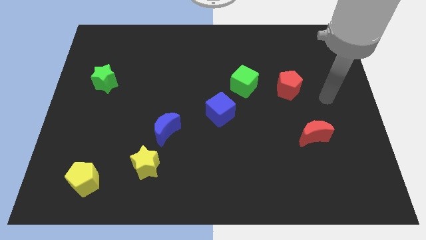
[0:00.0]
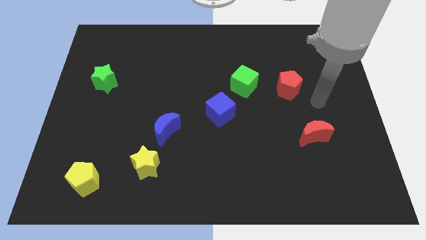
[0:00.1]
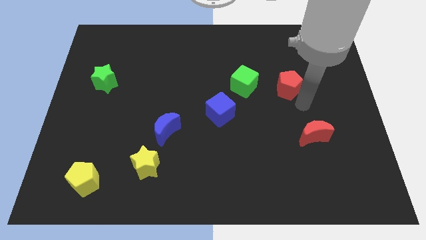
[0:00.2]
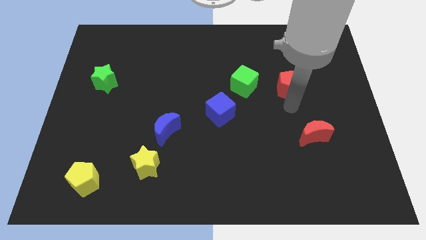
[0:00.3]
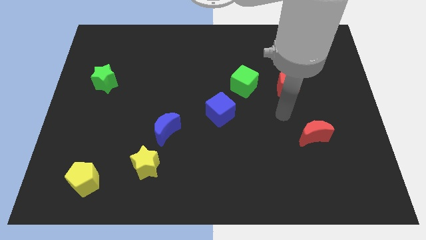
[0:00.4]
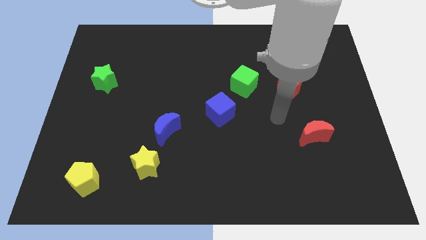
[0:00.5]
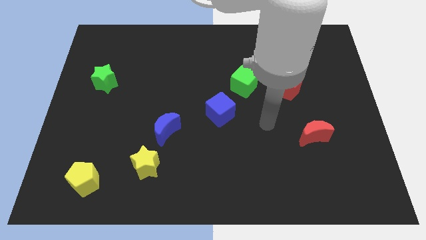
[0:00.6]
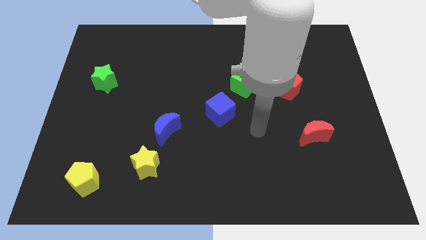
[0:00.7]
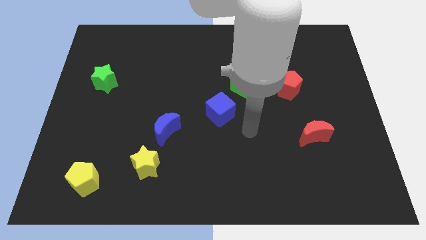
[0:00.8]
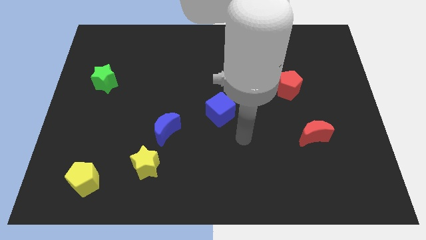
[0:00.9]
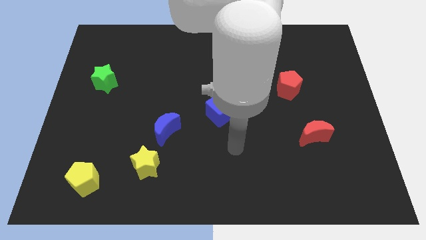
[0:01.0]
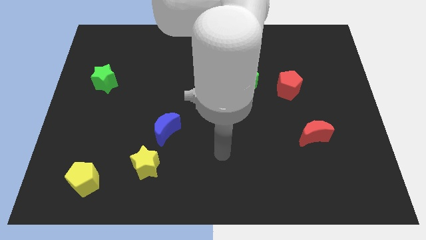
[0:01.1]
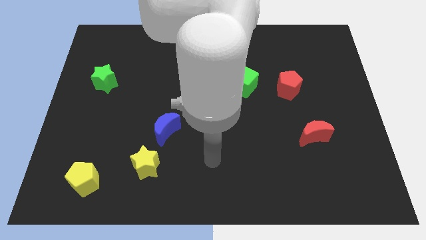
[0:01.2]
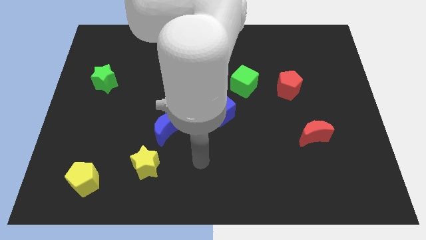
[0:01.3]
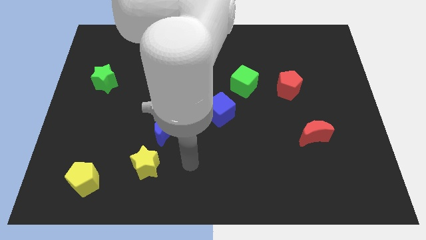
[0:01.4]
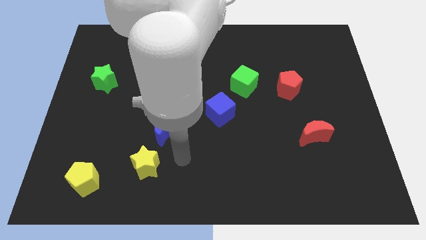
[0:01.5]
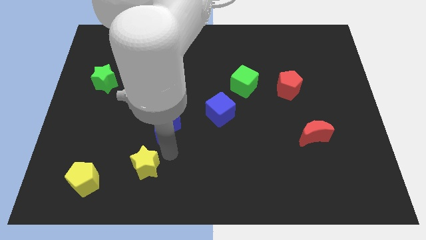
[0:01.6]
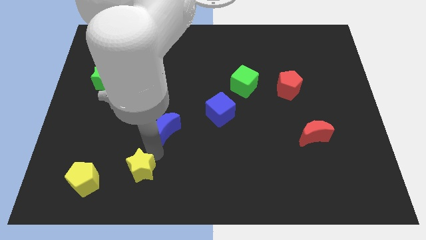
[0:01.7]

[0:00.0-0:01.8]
pull the blue moon apart from the yellow star

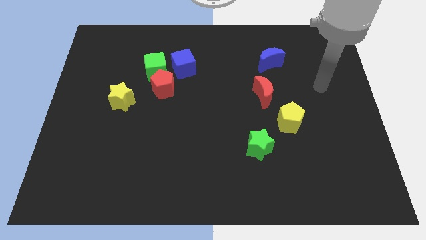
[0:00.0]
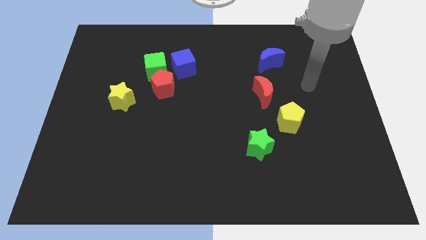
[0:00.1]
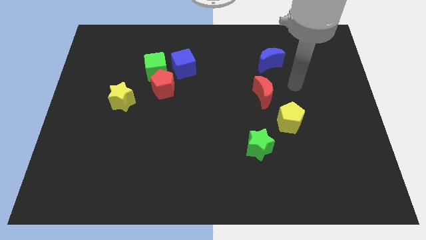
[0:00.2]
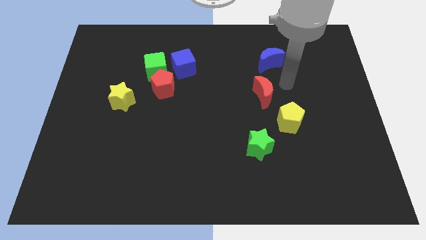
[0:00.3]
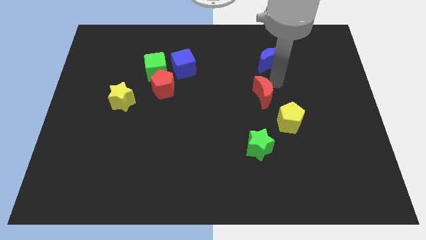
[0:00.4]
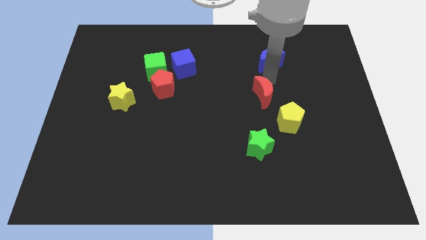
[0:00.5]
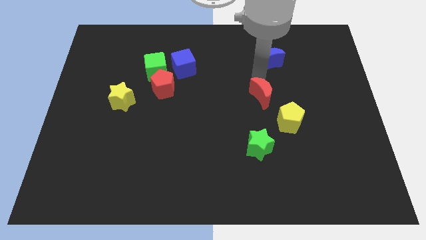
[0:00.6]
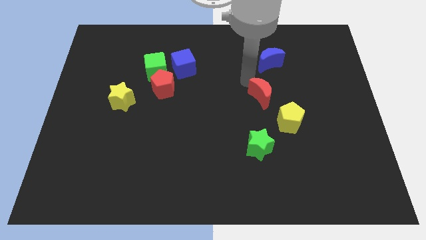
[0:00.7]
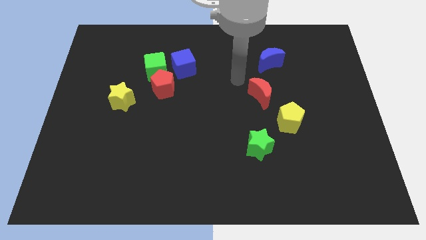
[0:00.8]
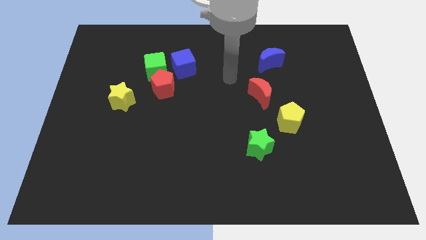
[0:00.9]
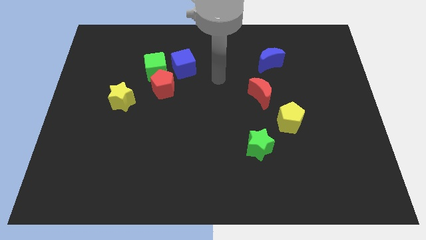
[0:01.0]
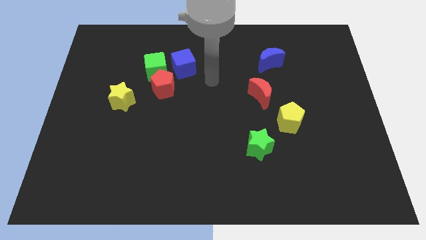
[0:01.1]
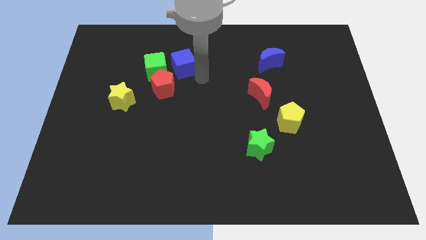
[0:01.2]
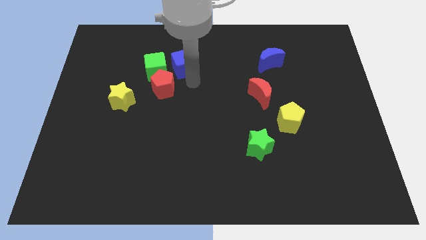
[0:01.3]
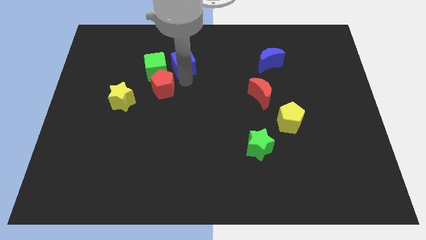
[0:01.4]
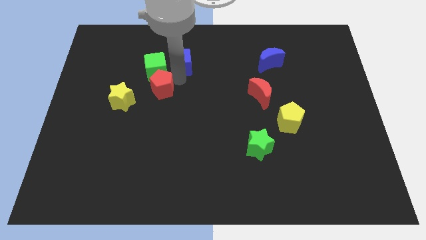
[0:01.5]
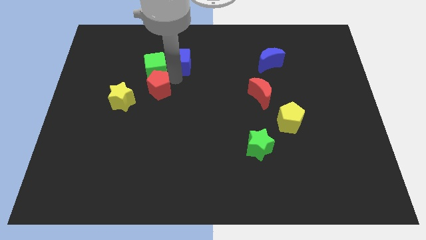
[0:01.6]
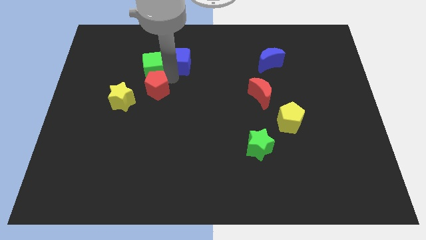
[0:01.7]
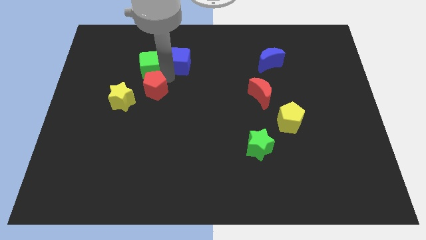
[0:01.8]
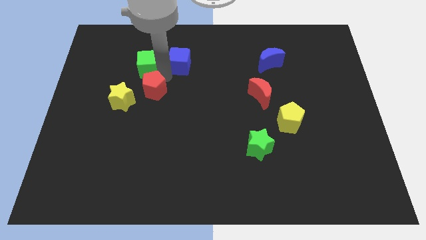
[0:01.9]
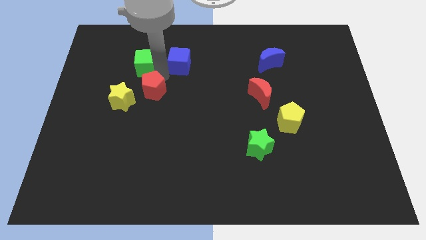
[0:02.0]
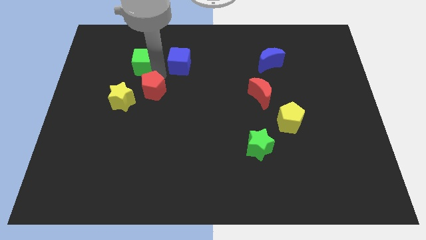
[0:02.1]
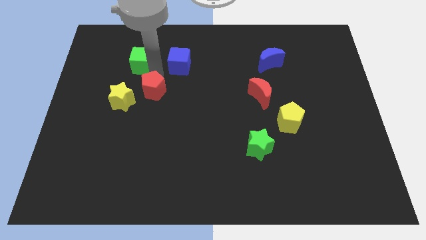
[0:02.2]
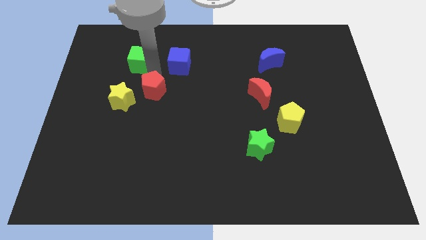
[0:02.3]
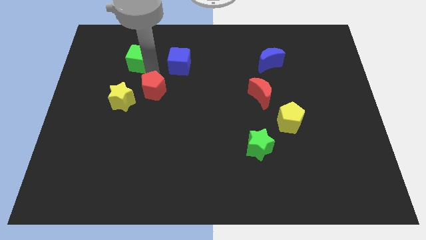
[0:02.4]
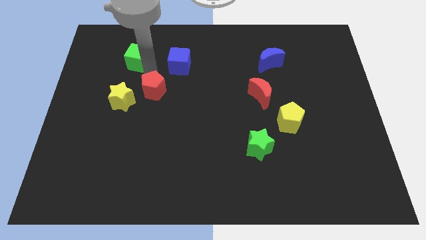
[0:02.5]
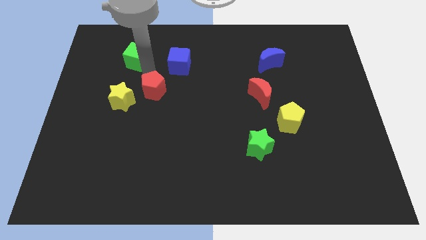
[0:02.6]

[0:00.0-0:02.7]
separate the green cube from the red pentagon and blue cube

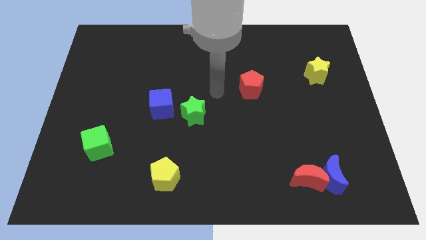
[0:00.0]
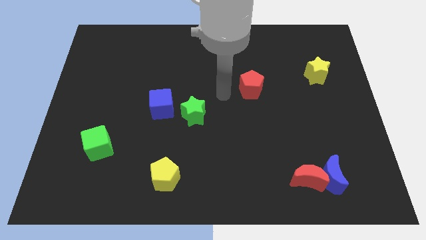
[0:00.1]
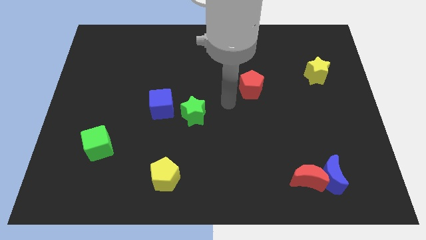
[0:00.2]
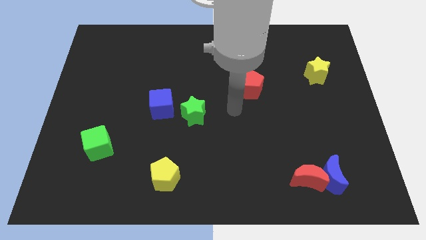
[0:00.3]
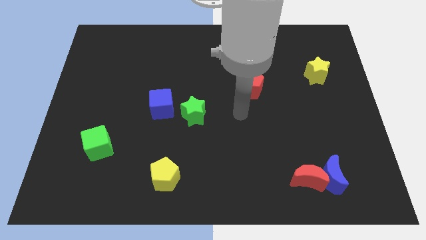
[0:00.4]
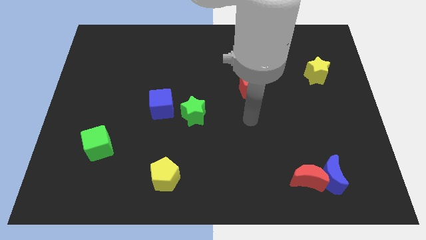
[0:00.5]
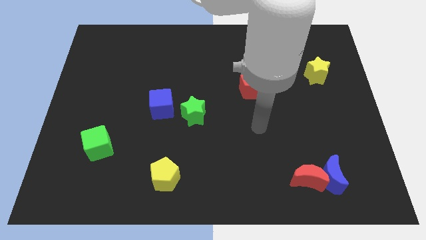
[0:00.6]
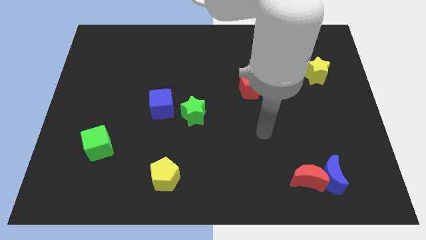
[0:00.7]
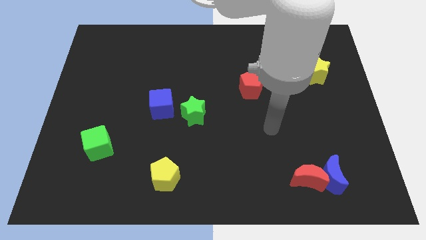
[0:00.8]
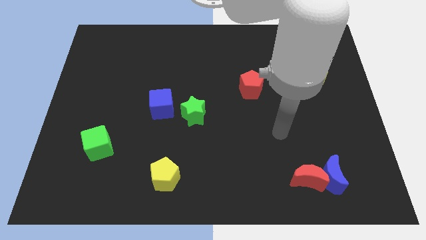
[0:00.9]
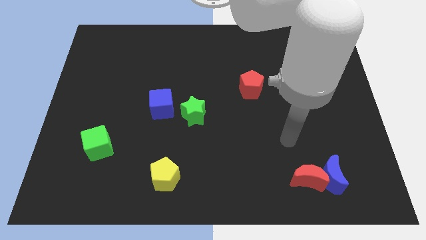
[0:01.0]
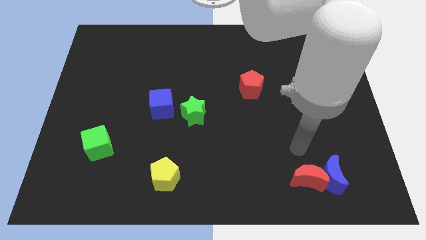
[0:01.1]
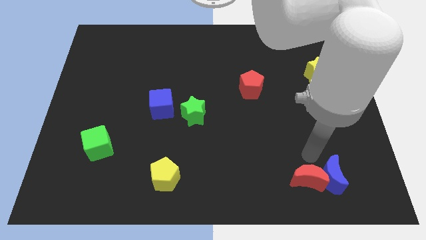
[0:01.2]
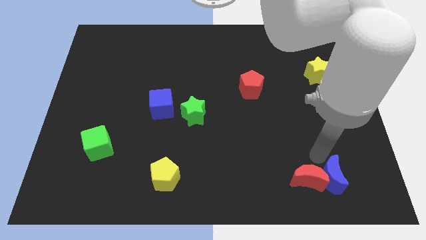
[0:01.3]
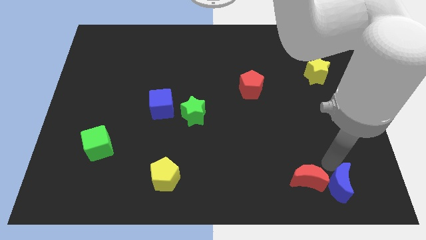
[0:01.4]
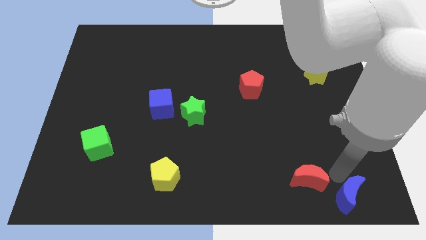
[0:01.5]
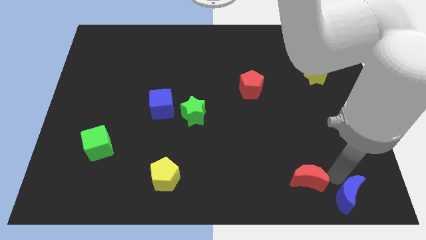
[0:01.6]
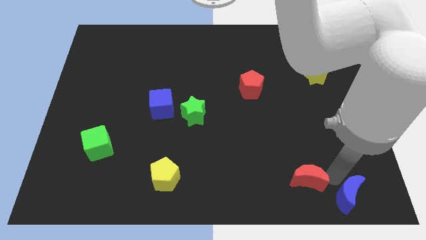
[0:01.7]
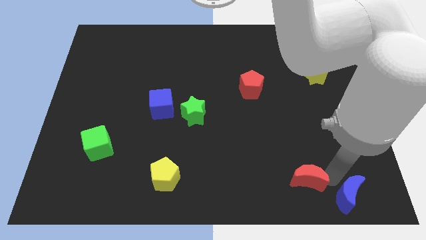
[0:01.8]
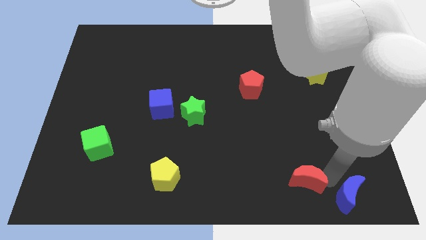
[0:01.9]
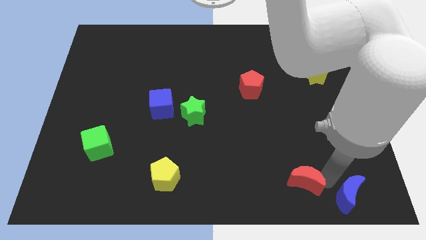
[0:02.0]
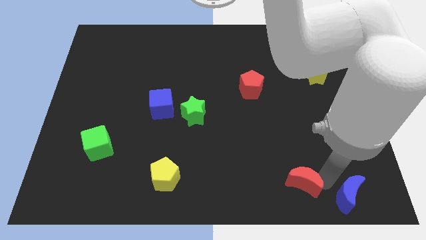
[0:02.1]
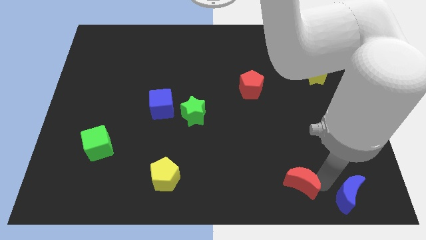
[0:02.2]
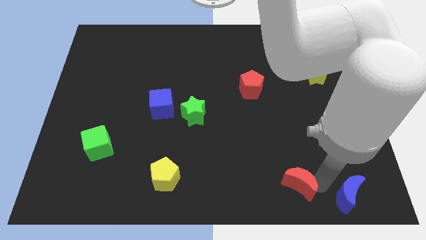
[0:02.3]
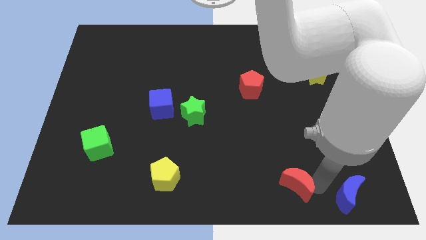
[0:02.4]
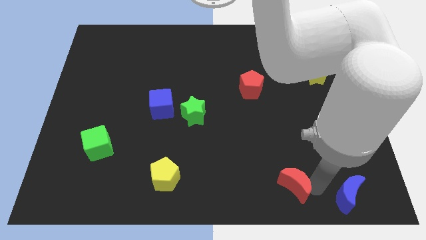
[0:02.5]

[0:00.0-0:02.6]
move the red moon away from the blue moon

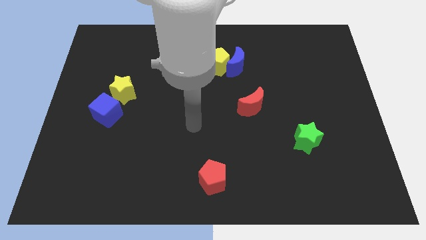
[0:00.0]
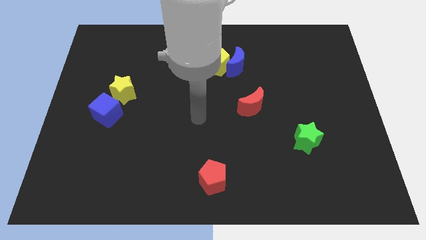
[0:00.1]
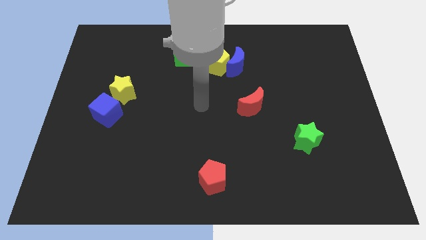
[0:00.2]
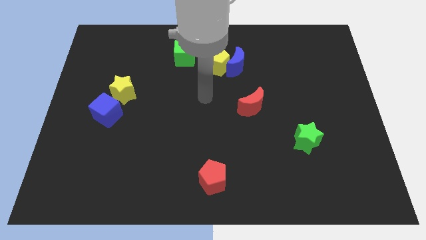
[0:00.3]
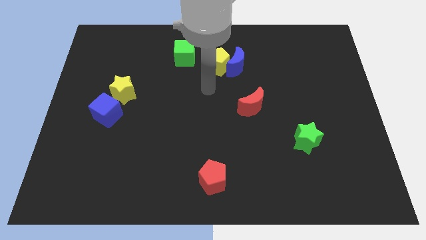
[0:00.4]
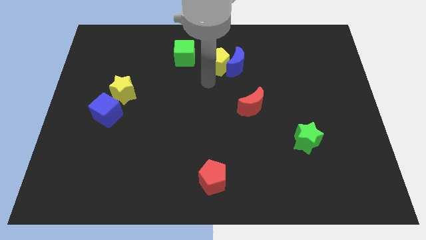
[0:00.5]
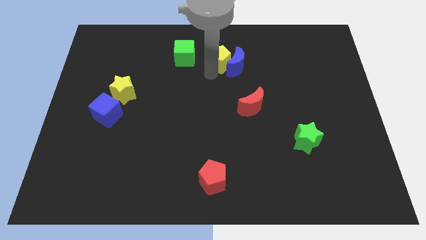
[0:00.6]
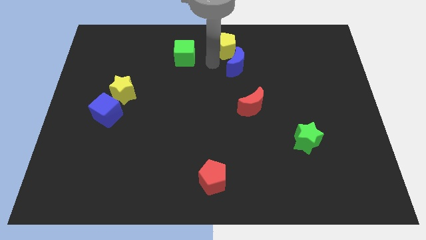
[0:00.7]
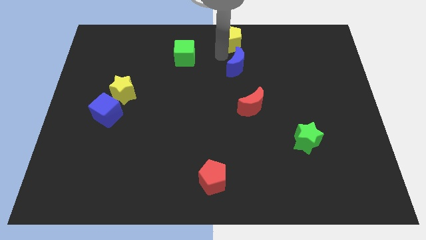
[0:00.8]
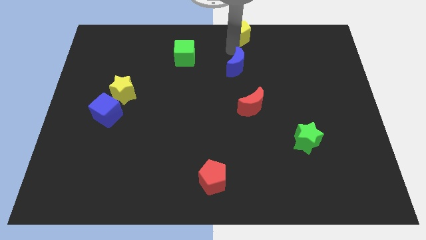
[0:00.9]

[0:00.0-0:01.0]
separate the blue moon from the yellow pentagon

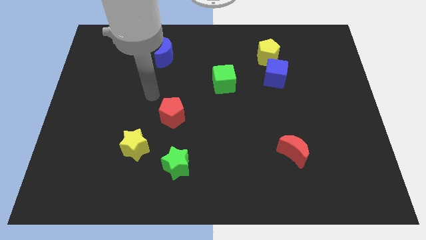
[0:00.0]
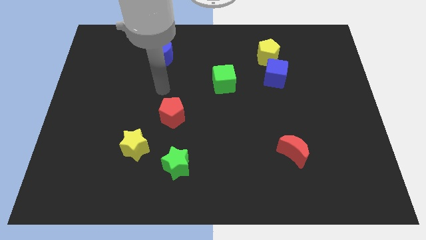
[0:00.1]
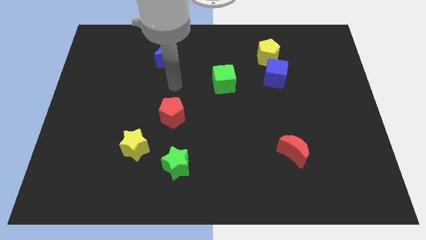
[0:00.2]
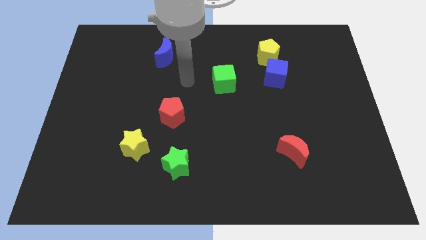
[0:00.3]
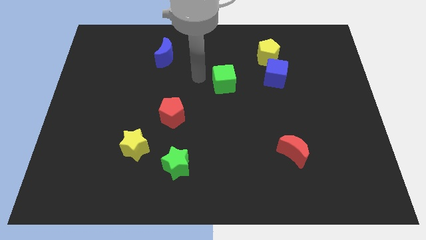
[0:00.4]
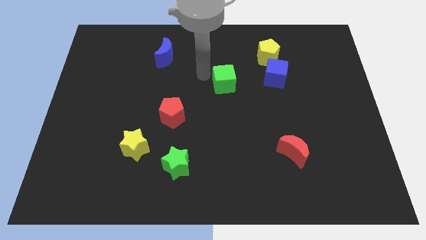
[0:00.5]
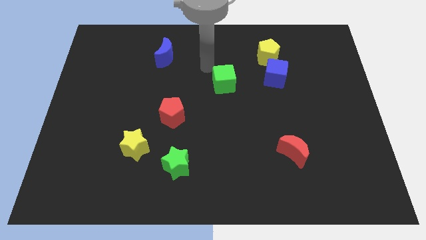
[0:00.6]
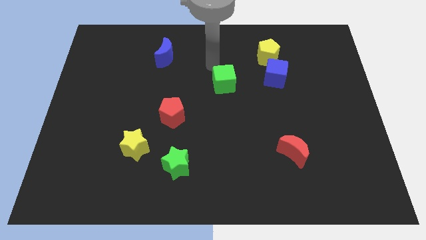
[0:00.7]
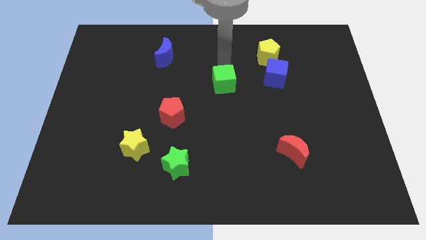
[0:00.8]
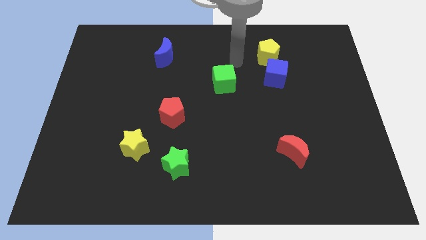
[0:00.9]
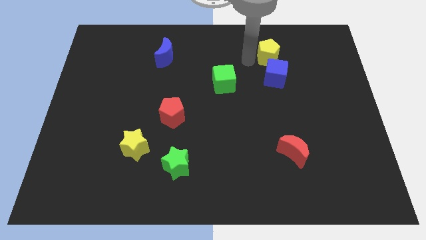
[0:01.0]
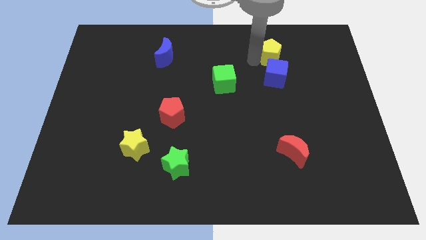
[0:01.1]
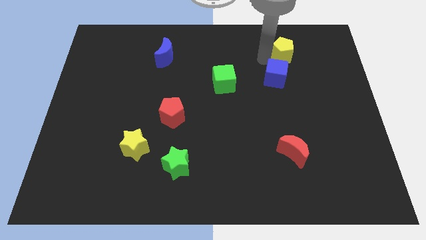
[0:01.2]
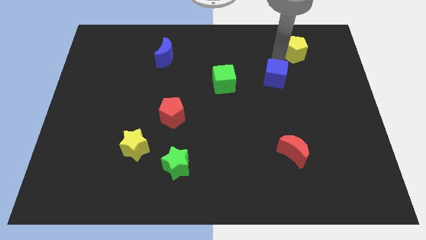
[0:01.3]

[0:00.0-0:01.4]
separate the blue cube from the yellow pentagon

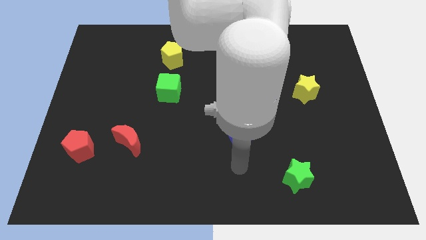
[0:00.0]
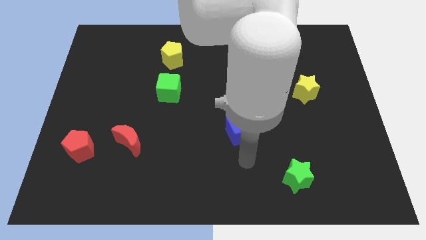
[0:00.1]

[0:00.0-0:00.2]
move the blue moon away from the yellow star
